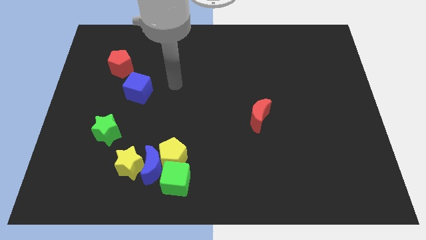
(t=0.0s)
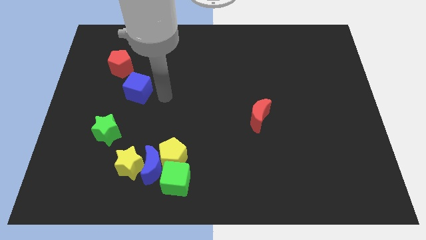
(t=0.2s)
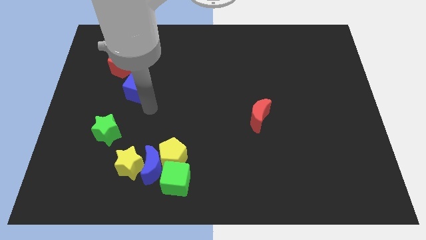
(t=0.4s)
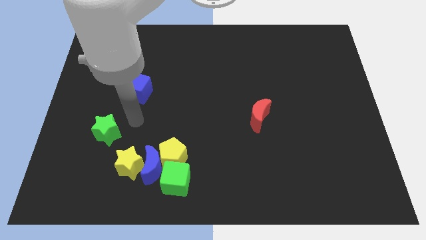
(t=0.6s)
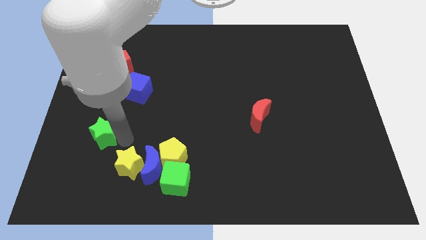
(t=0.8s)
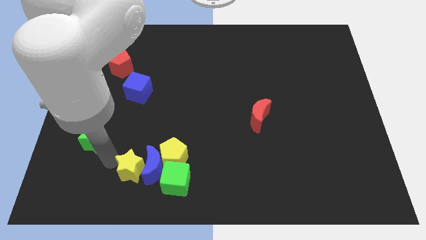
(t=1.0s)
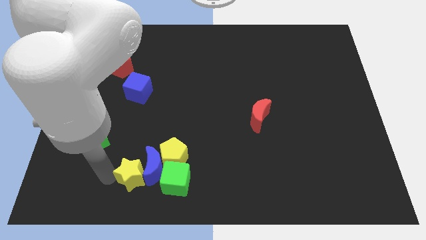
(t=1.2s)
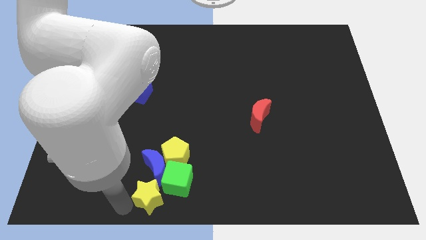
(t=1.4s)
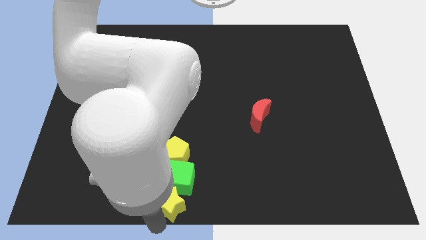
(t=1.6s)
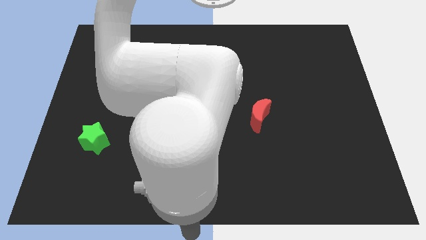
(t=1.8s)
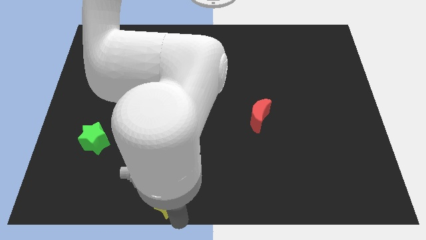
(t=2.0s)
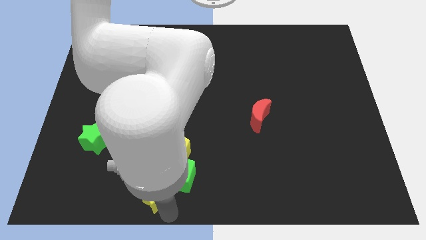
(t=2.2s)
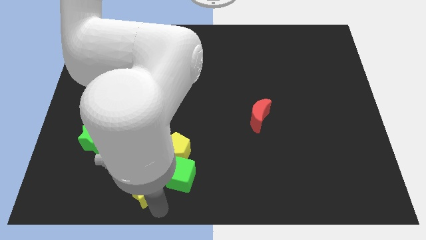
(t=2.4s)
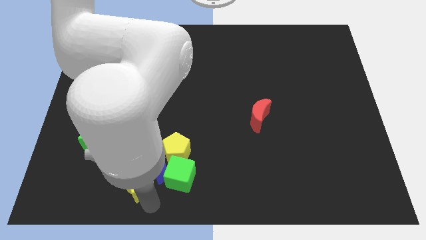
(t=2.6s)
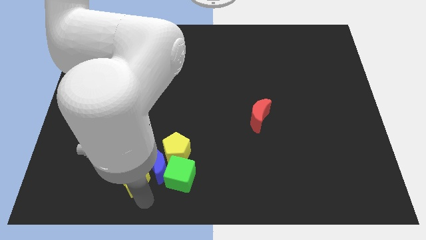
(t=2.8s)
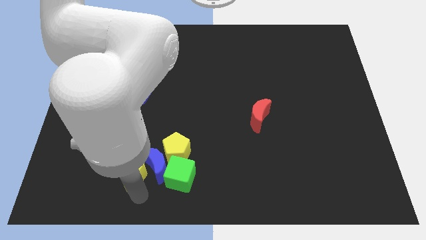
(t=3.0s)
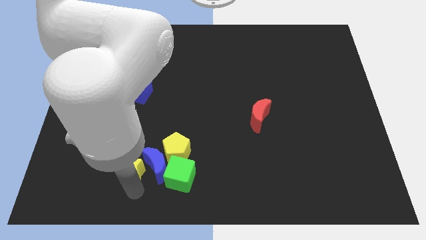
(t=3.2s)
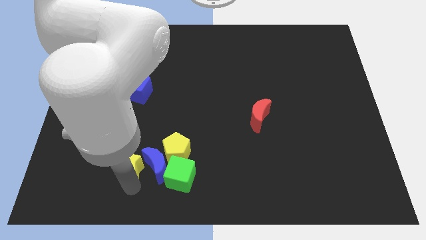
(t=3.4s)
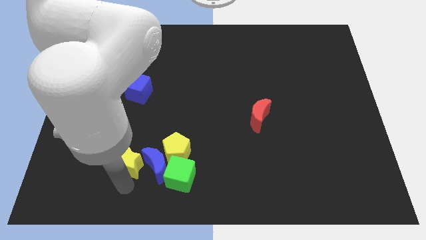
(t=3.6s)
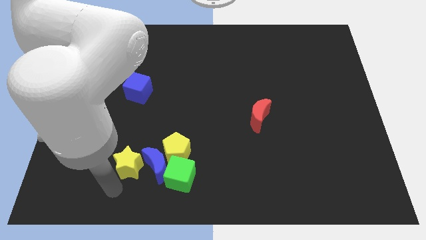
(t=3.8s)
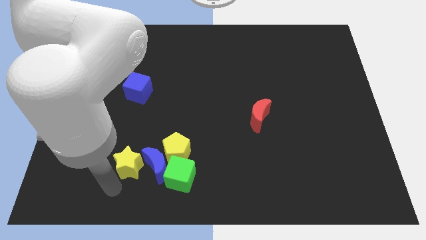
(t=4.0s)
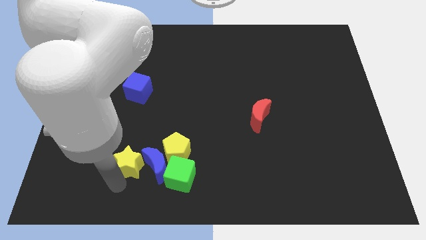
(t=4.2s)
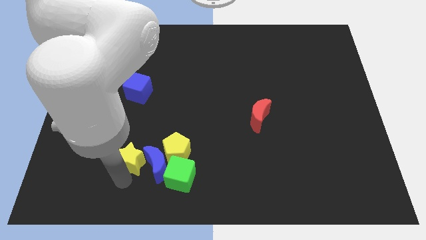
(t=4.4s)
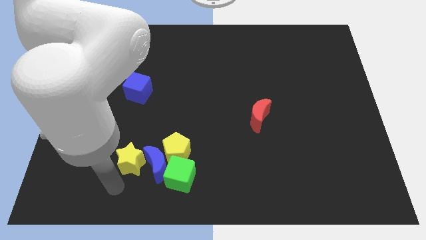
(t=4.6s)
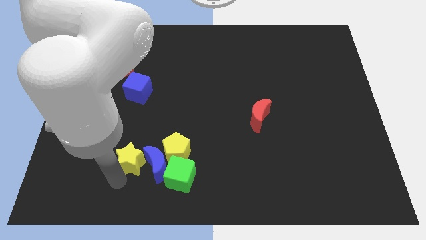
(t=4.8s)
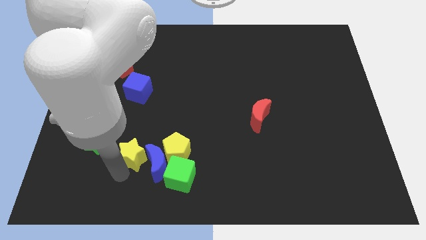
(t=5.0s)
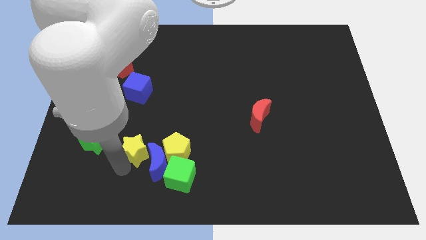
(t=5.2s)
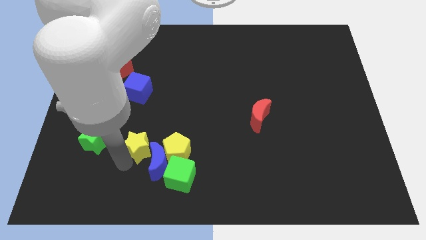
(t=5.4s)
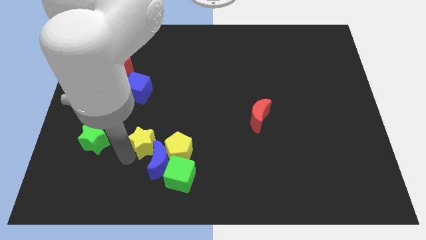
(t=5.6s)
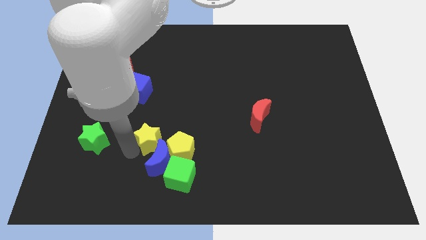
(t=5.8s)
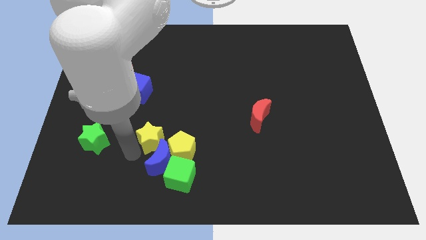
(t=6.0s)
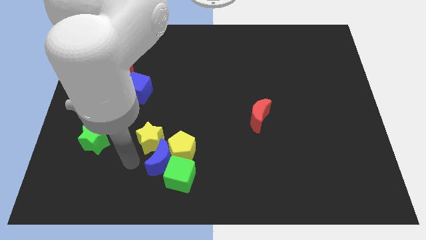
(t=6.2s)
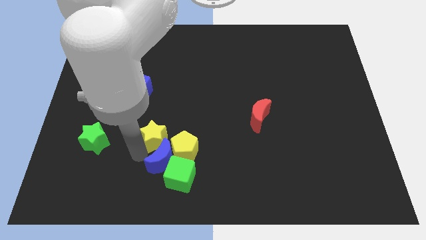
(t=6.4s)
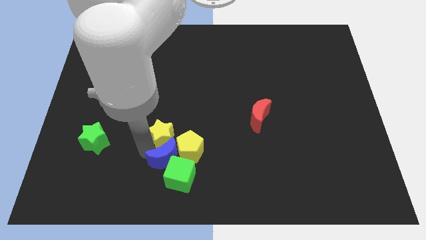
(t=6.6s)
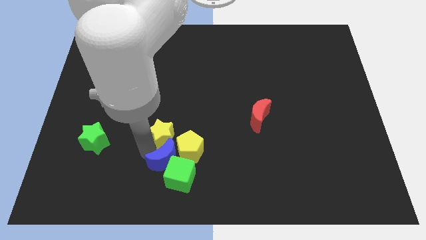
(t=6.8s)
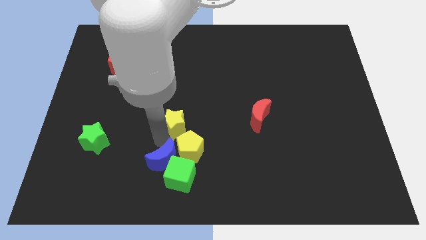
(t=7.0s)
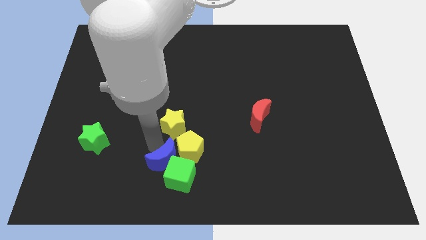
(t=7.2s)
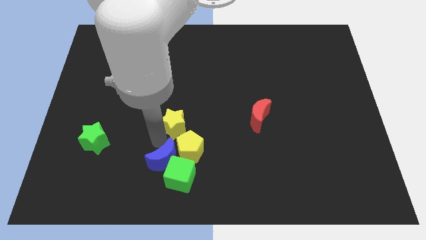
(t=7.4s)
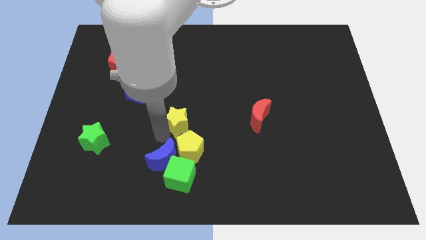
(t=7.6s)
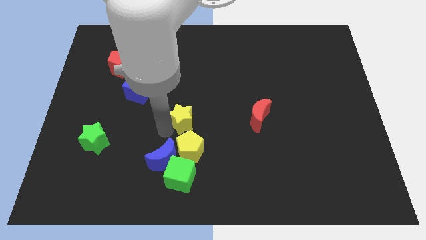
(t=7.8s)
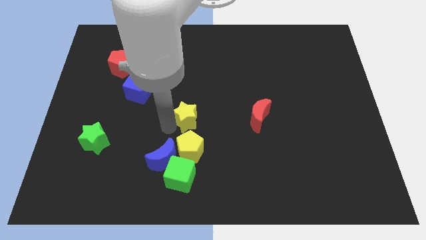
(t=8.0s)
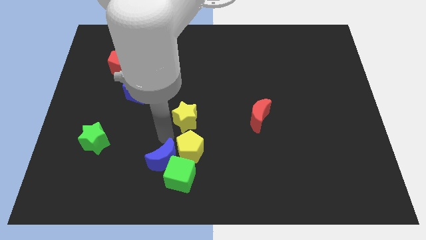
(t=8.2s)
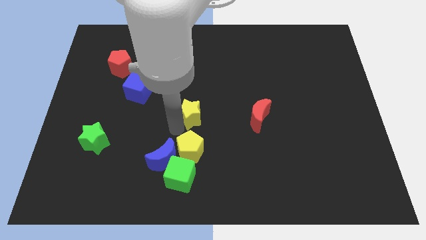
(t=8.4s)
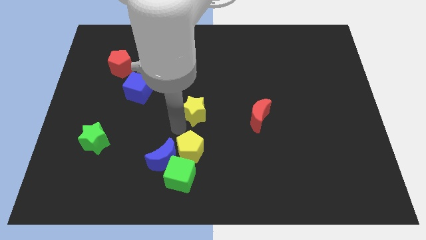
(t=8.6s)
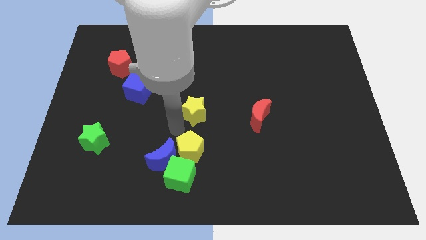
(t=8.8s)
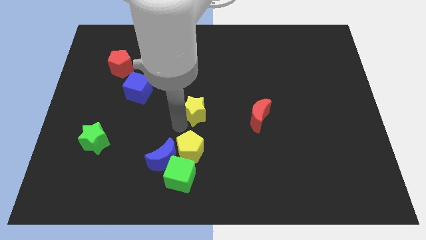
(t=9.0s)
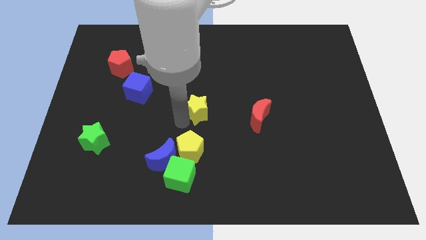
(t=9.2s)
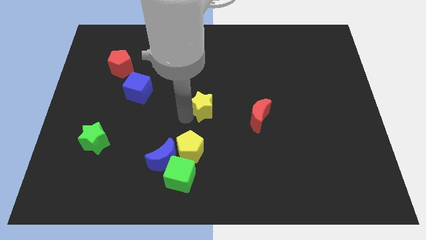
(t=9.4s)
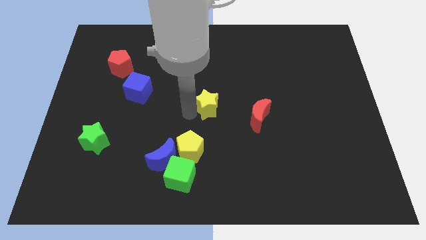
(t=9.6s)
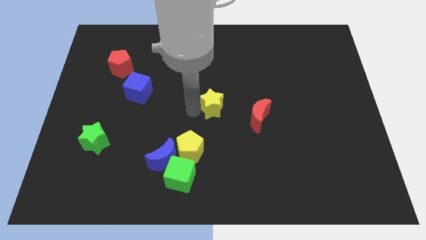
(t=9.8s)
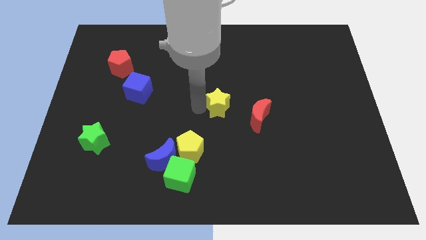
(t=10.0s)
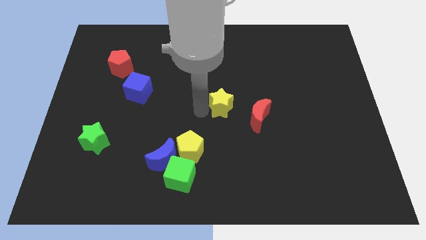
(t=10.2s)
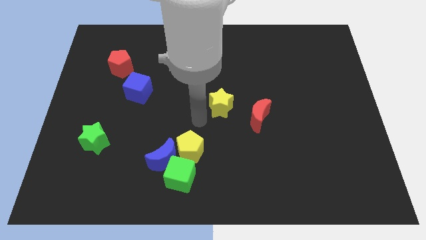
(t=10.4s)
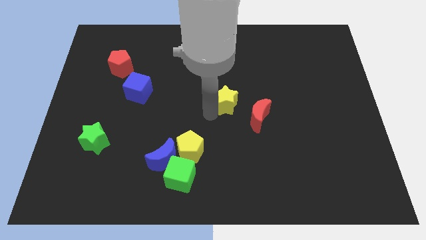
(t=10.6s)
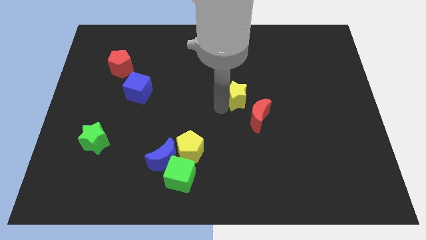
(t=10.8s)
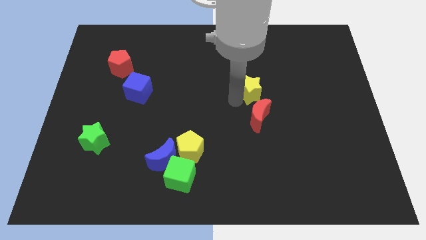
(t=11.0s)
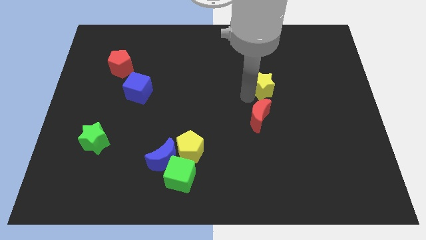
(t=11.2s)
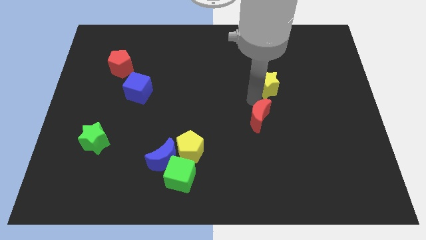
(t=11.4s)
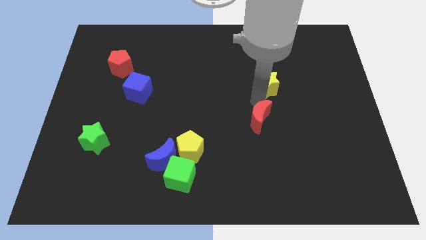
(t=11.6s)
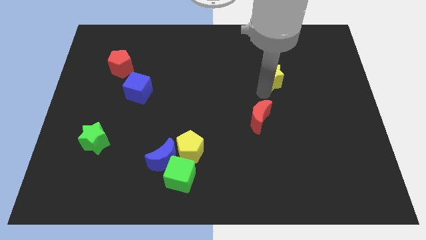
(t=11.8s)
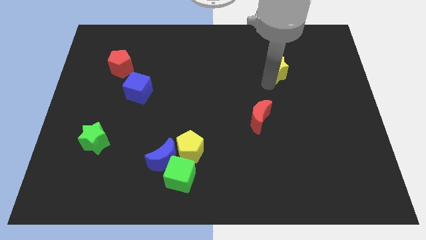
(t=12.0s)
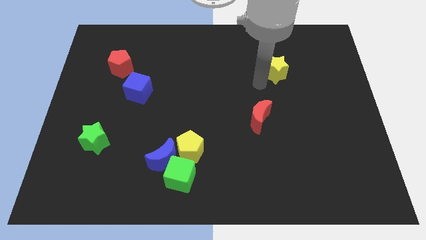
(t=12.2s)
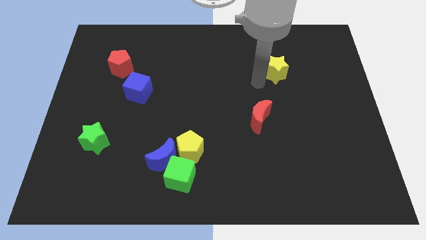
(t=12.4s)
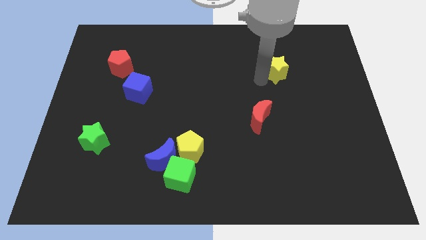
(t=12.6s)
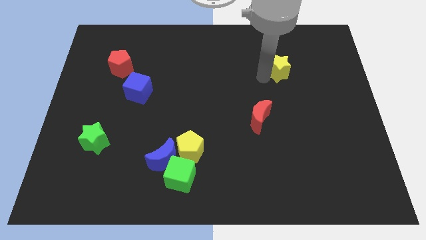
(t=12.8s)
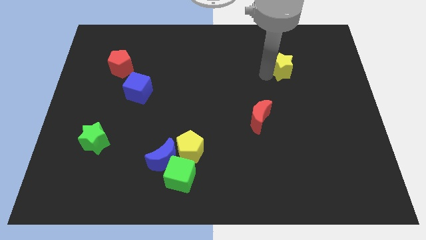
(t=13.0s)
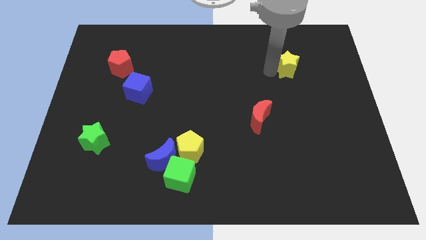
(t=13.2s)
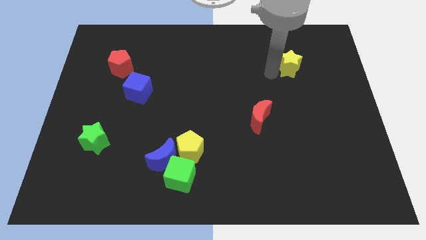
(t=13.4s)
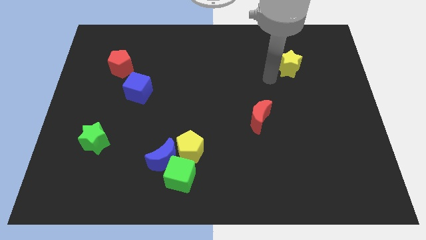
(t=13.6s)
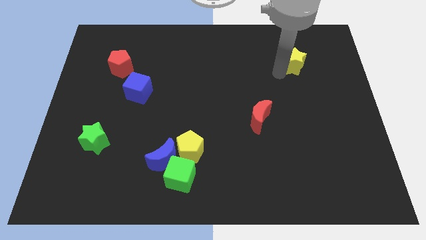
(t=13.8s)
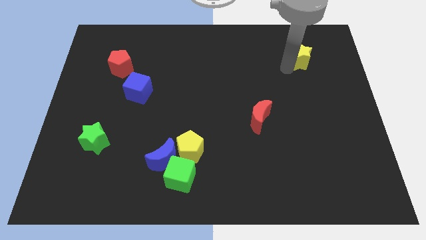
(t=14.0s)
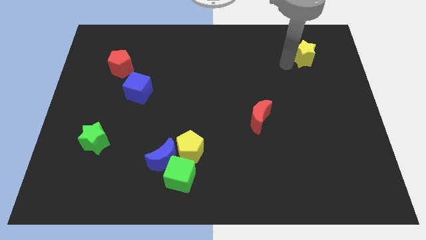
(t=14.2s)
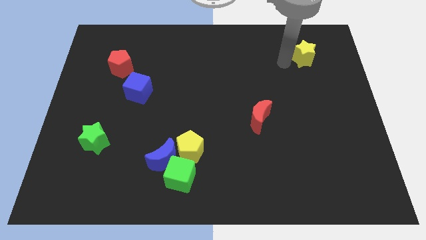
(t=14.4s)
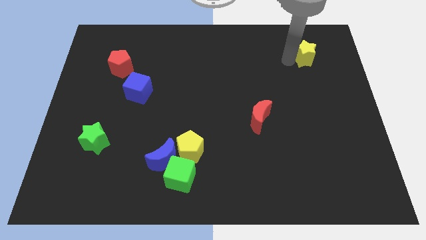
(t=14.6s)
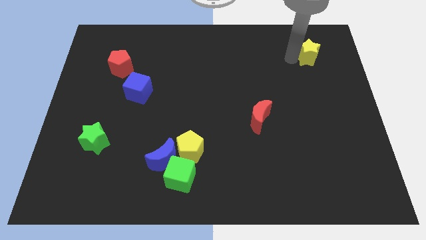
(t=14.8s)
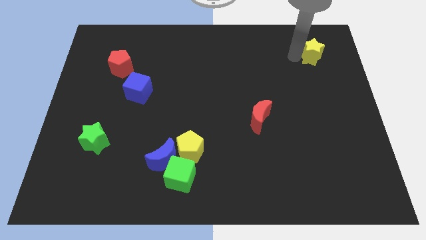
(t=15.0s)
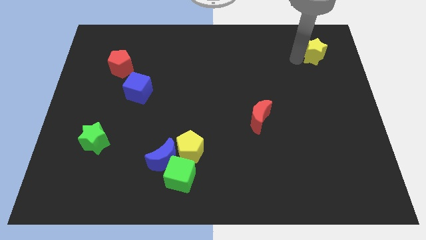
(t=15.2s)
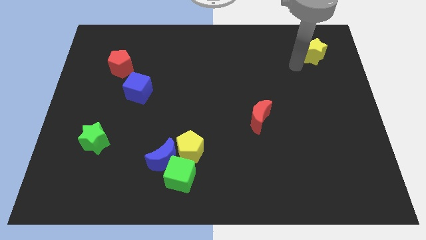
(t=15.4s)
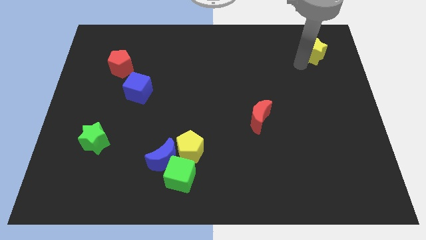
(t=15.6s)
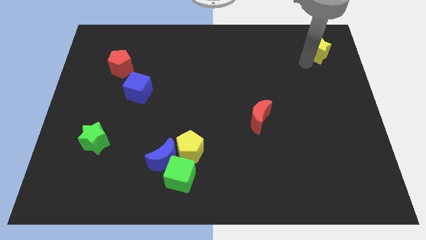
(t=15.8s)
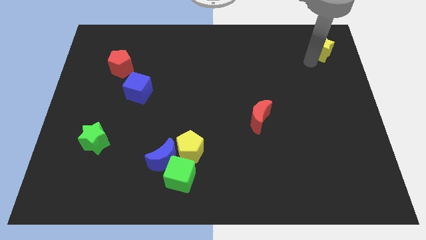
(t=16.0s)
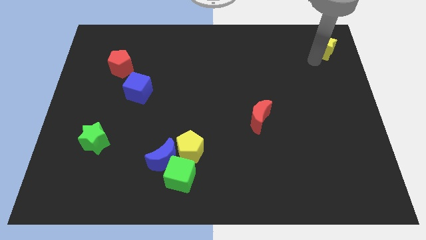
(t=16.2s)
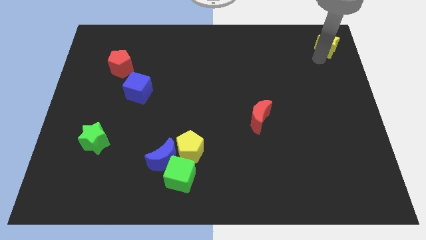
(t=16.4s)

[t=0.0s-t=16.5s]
move the yellow star to the top right corner
